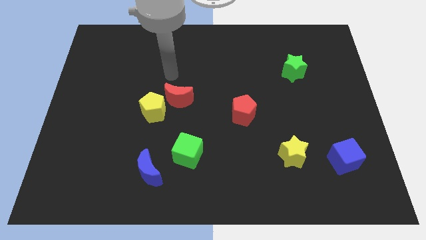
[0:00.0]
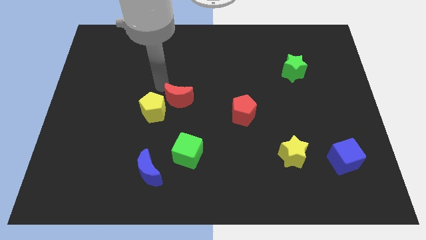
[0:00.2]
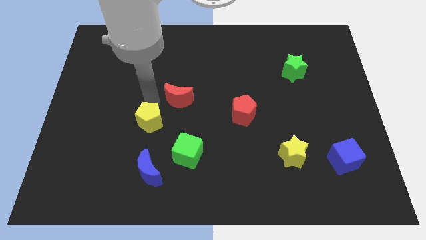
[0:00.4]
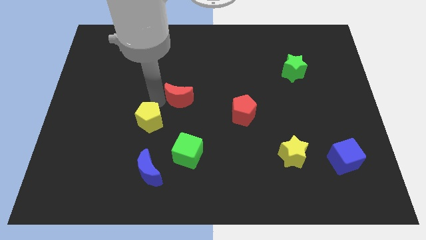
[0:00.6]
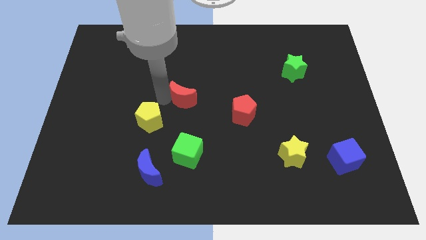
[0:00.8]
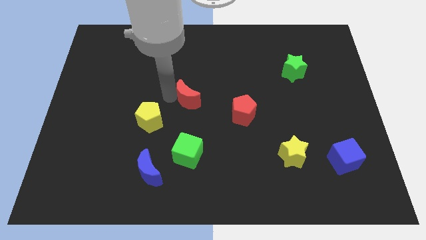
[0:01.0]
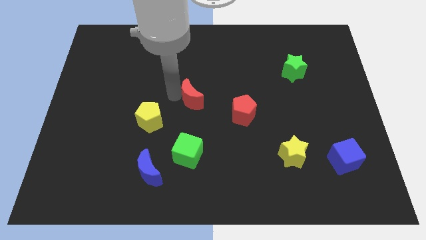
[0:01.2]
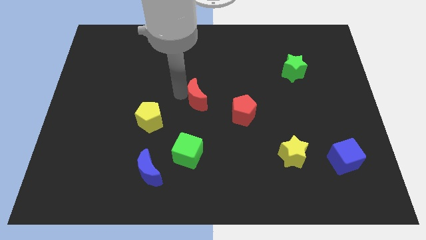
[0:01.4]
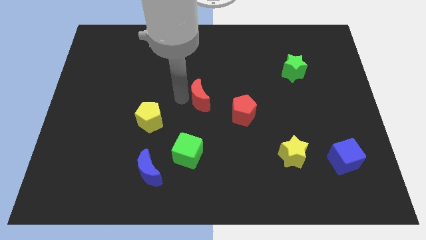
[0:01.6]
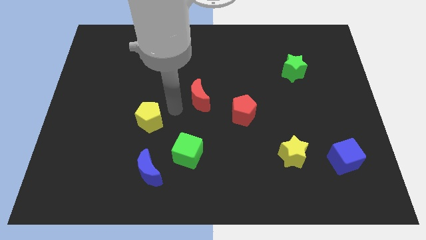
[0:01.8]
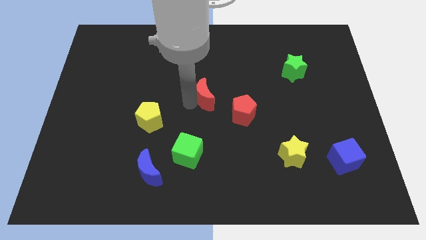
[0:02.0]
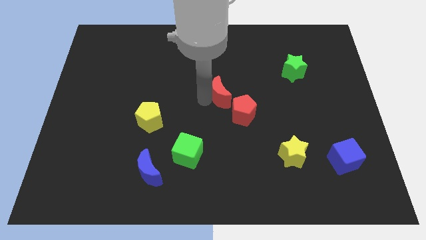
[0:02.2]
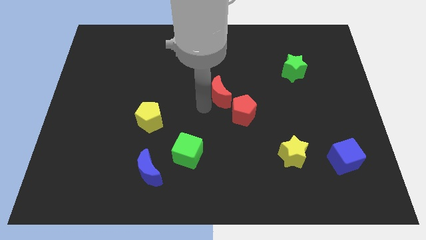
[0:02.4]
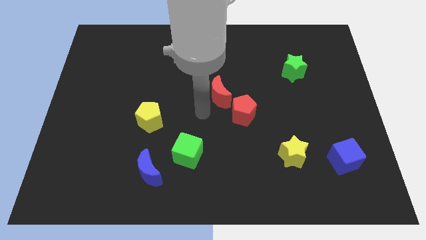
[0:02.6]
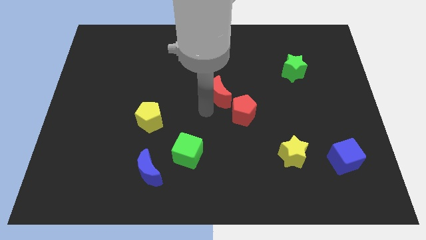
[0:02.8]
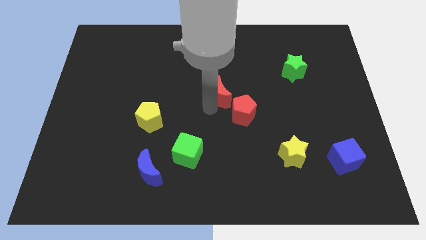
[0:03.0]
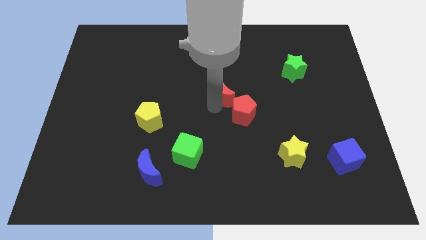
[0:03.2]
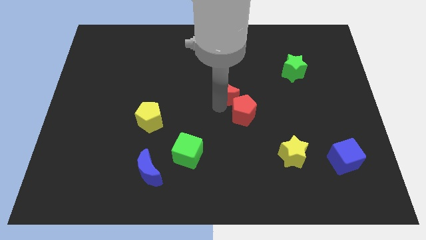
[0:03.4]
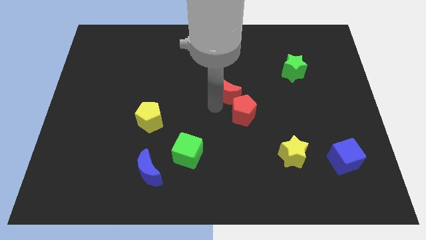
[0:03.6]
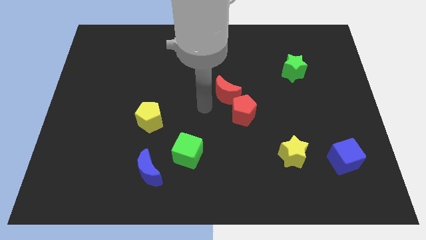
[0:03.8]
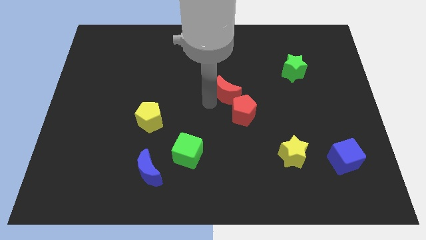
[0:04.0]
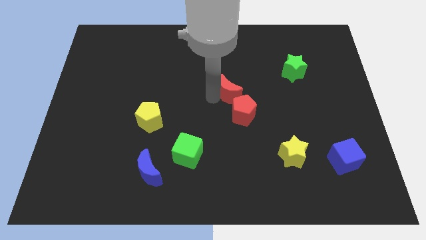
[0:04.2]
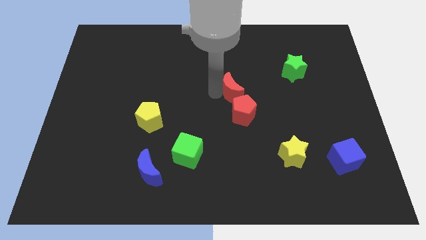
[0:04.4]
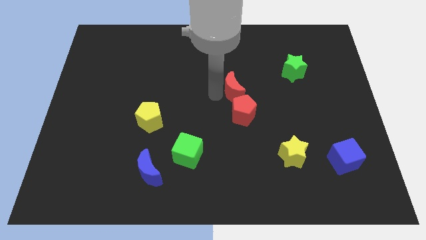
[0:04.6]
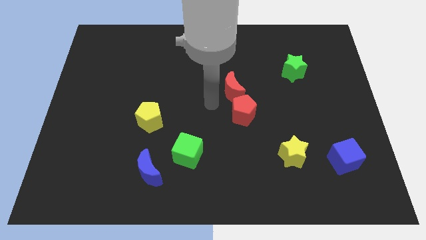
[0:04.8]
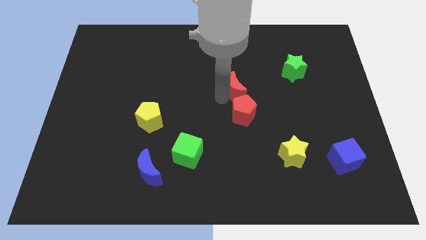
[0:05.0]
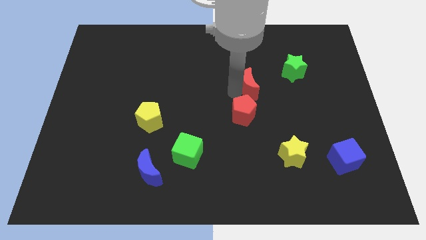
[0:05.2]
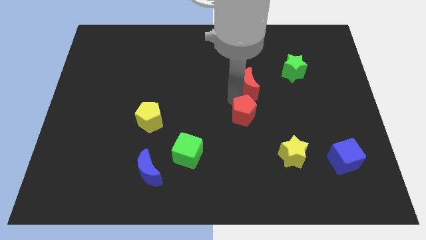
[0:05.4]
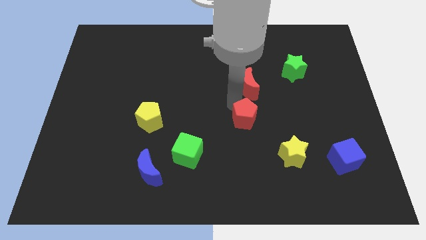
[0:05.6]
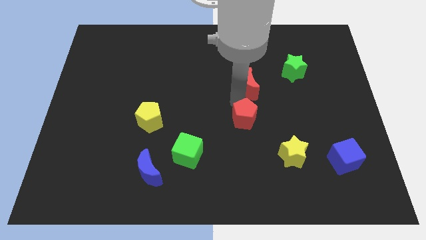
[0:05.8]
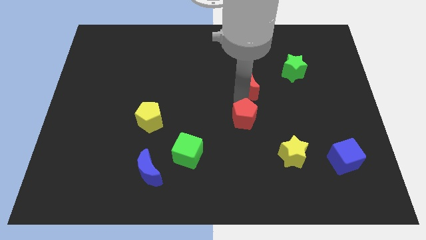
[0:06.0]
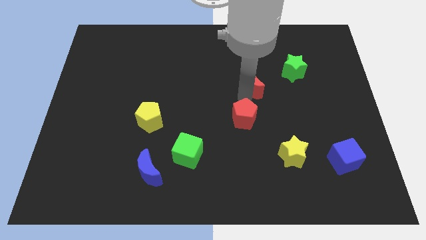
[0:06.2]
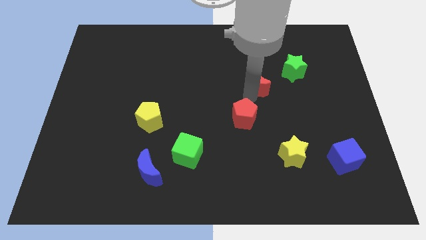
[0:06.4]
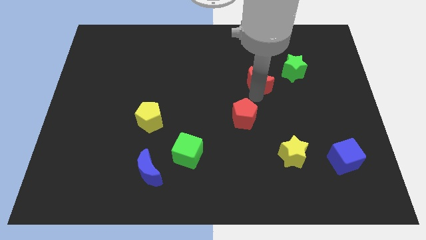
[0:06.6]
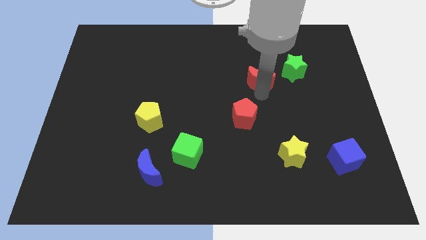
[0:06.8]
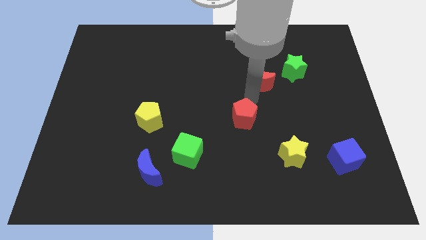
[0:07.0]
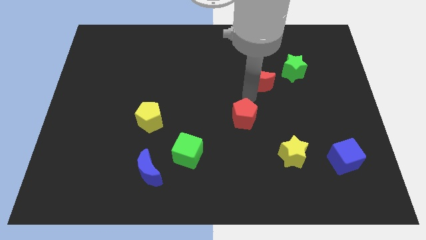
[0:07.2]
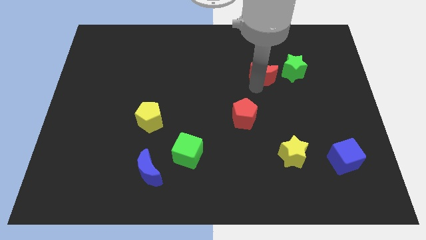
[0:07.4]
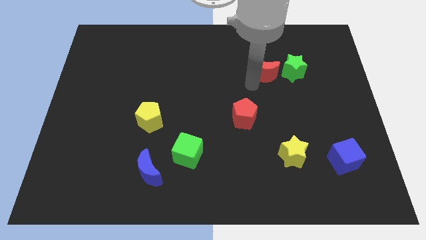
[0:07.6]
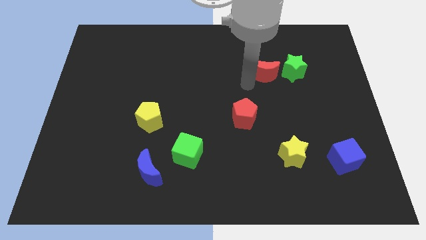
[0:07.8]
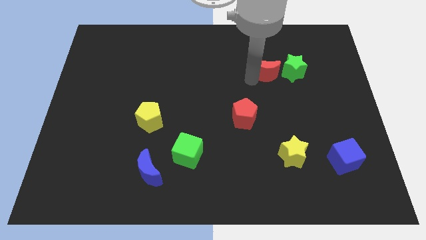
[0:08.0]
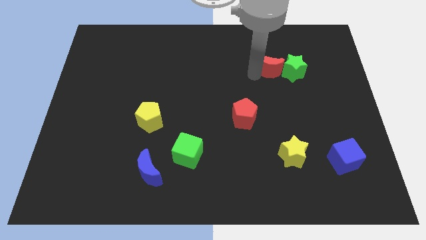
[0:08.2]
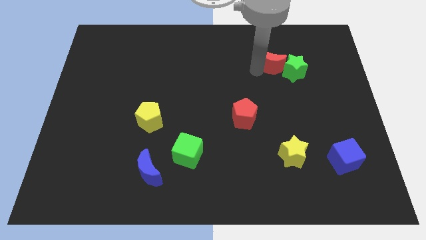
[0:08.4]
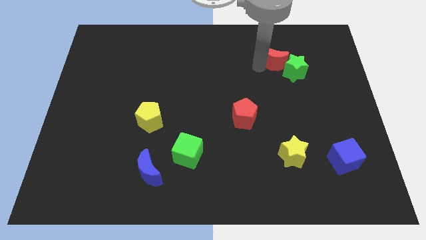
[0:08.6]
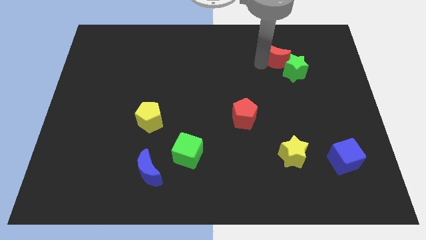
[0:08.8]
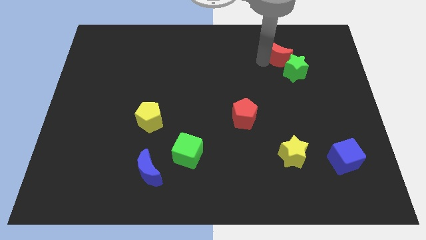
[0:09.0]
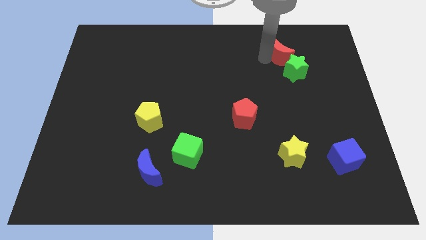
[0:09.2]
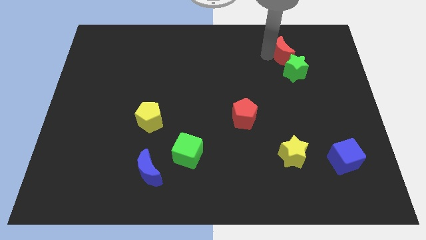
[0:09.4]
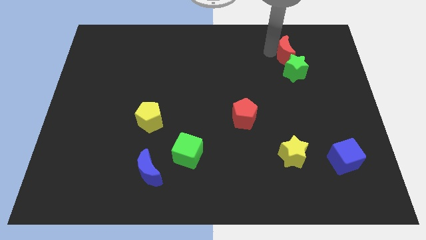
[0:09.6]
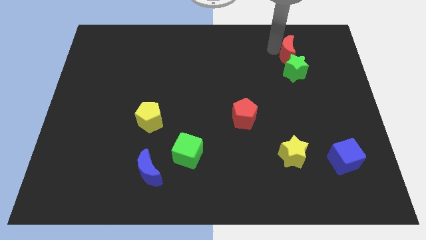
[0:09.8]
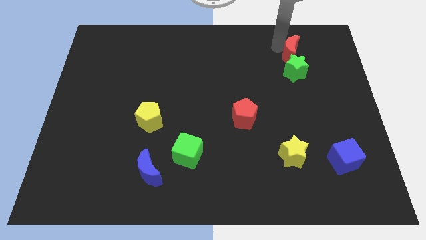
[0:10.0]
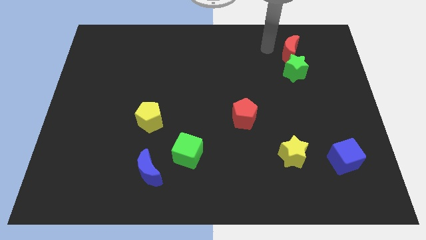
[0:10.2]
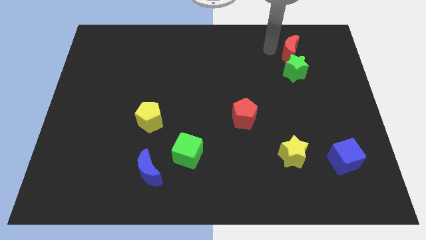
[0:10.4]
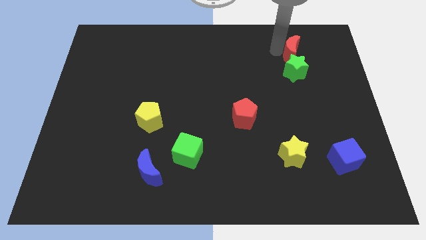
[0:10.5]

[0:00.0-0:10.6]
put the red moon to the top right side of the green star

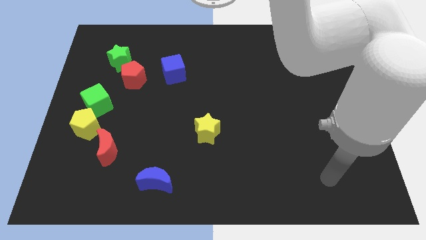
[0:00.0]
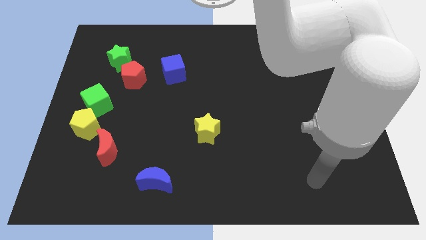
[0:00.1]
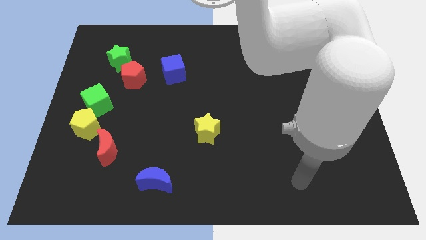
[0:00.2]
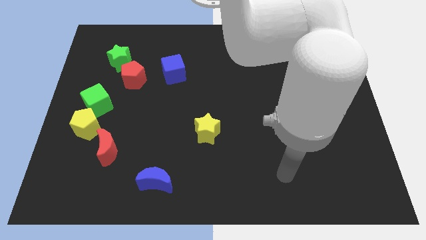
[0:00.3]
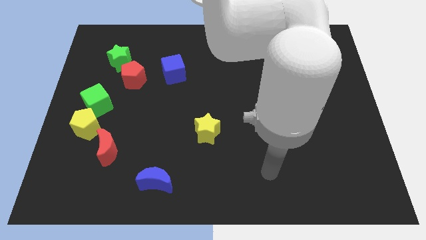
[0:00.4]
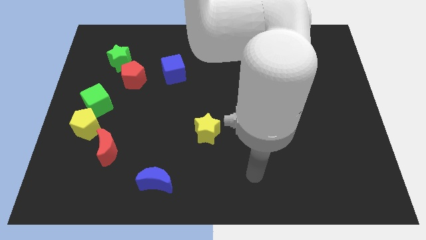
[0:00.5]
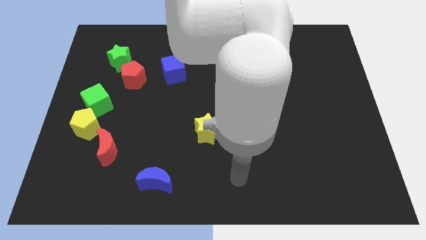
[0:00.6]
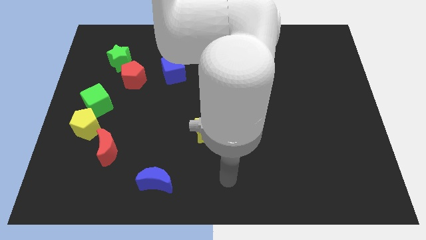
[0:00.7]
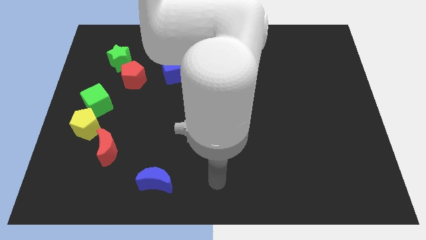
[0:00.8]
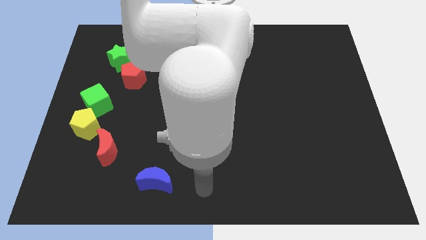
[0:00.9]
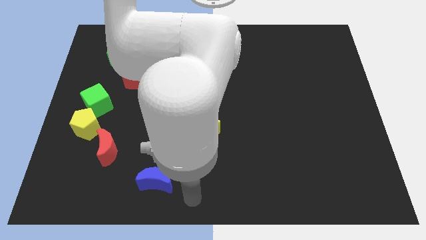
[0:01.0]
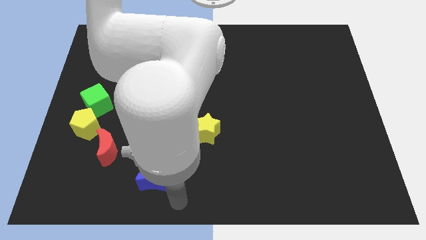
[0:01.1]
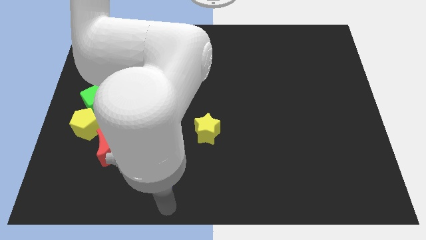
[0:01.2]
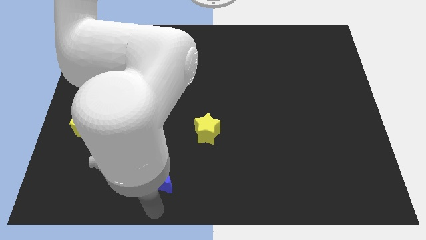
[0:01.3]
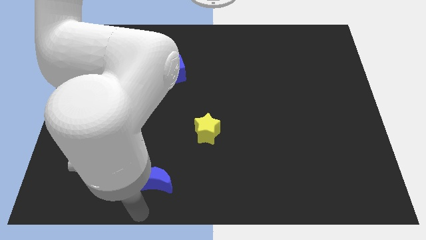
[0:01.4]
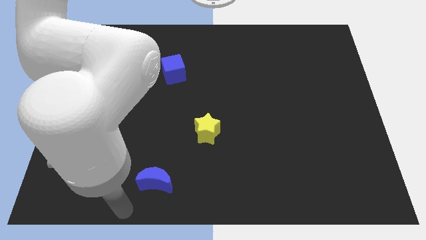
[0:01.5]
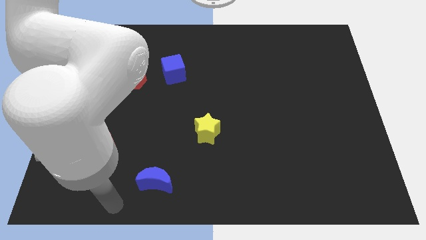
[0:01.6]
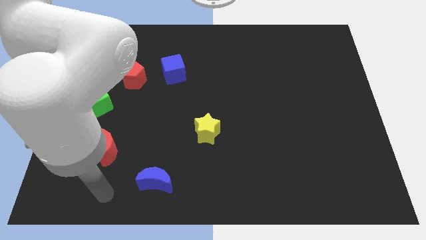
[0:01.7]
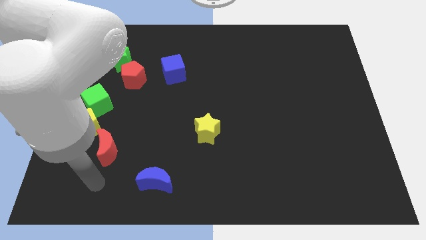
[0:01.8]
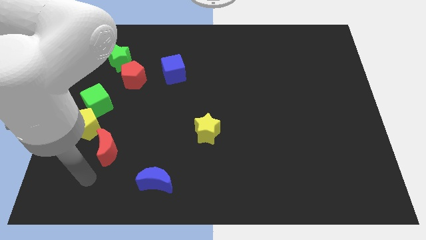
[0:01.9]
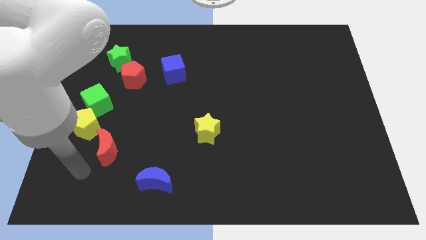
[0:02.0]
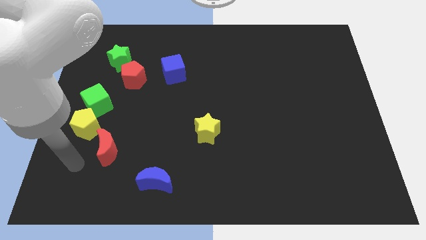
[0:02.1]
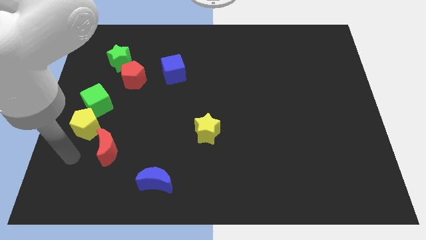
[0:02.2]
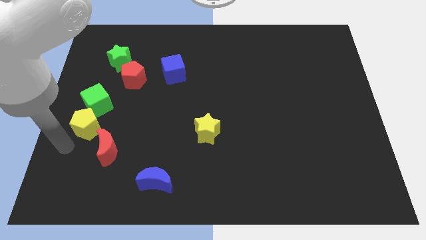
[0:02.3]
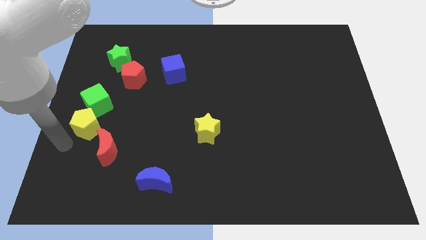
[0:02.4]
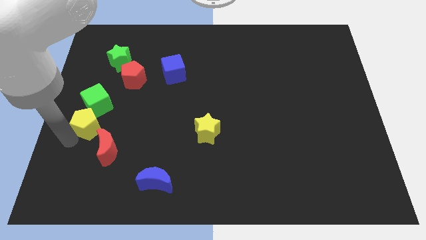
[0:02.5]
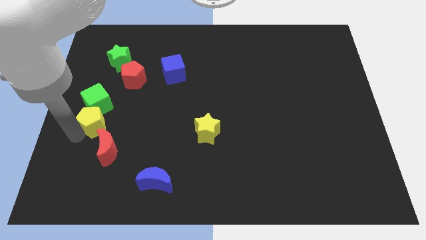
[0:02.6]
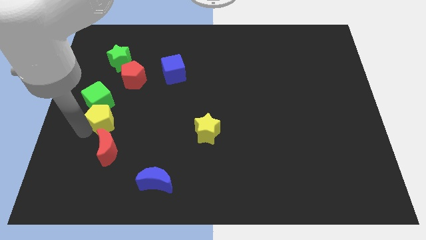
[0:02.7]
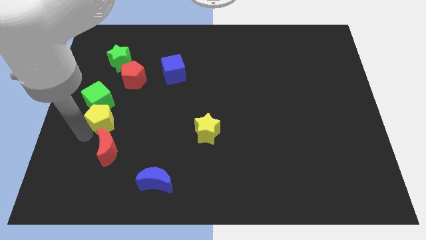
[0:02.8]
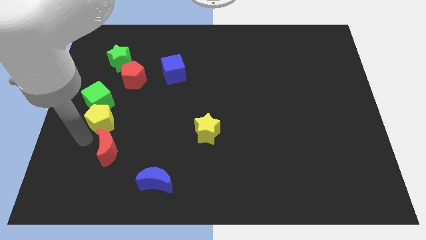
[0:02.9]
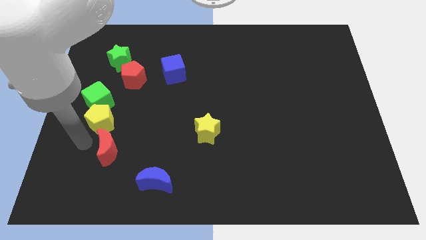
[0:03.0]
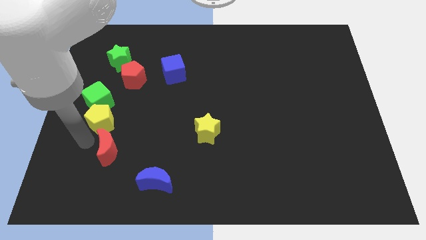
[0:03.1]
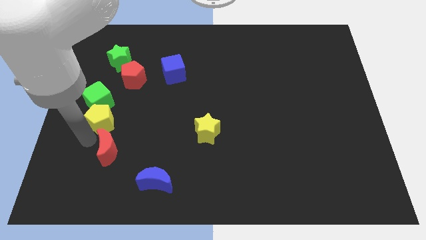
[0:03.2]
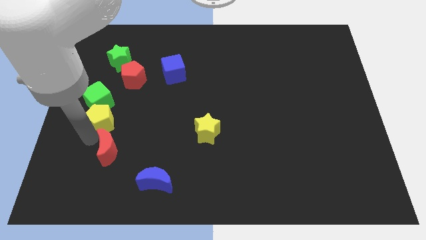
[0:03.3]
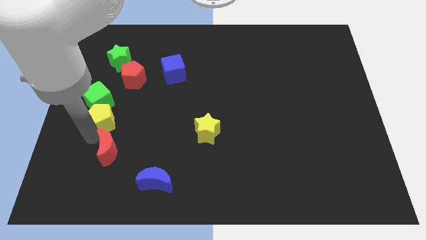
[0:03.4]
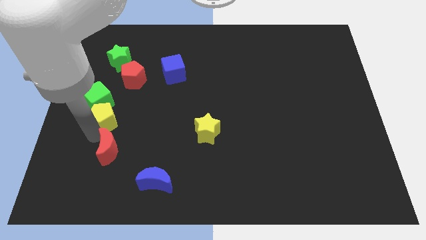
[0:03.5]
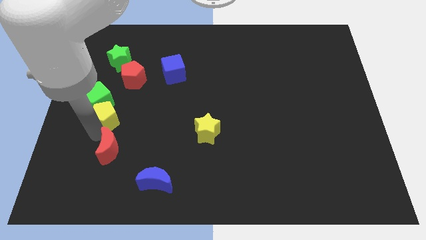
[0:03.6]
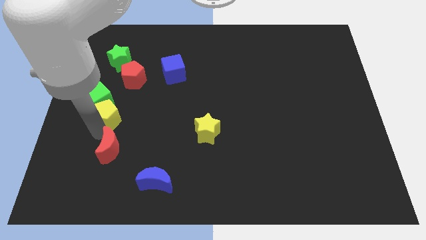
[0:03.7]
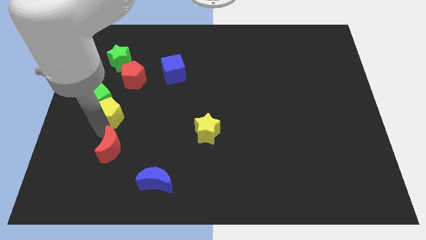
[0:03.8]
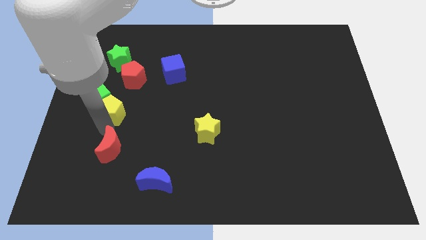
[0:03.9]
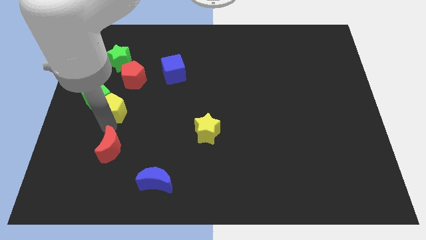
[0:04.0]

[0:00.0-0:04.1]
move the yellow pentagon below the green star
